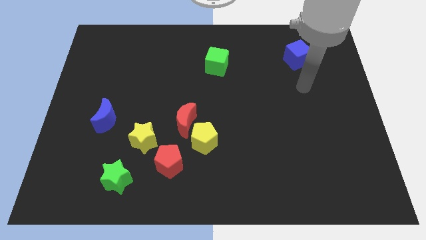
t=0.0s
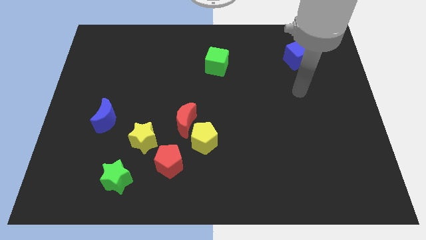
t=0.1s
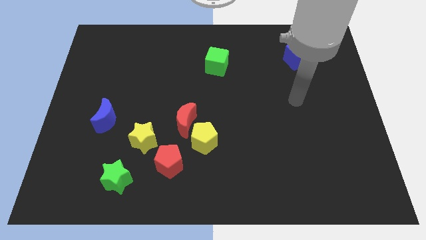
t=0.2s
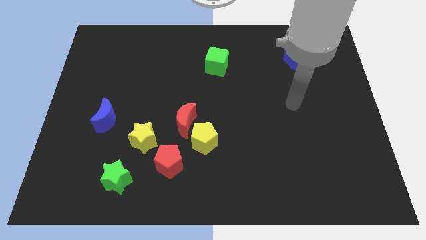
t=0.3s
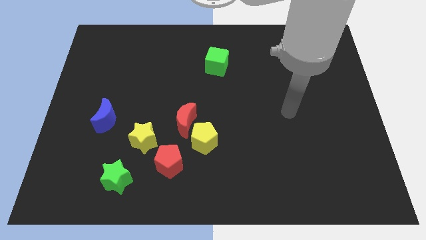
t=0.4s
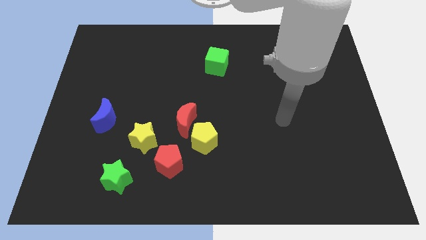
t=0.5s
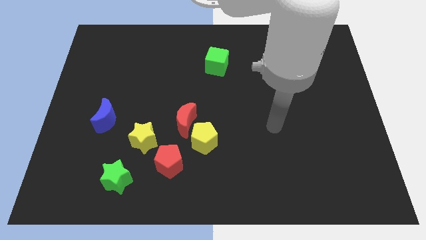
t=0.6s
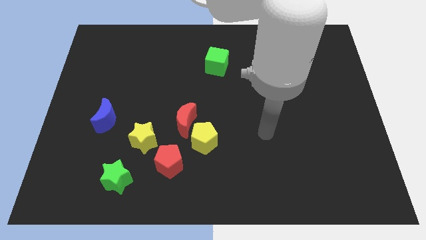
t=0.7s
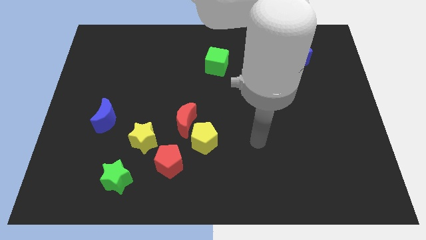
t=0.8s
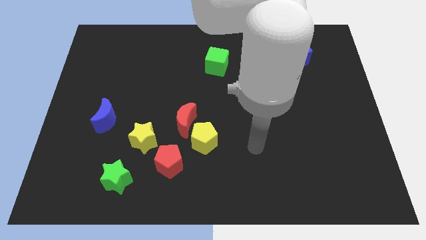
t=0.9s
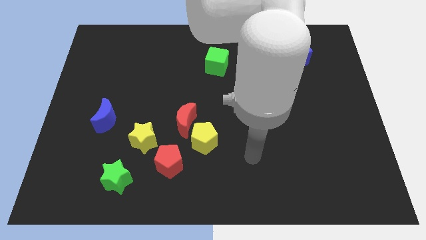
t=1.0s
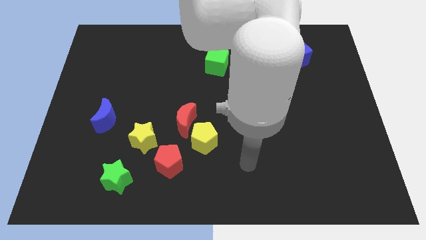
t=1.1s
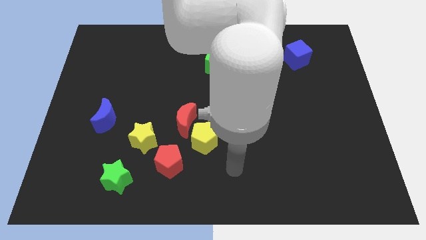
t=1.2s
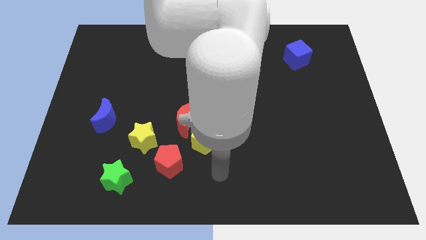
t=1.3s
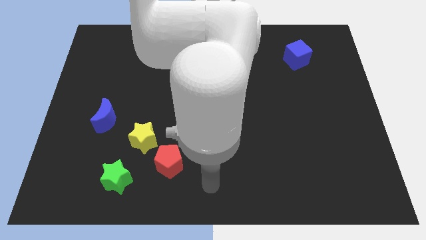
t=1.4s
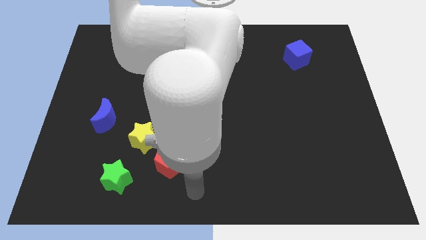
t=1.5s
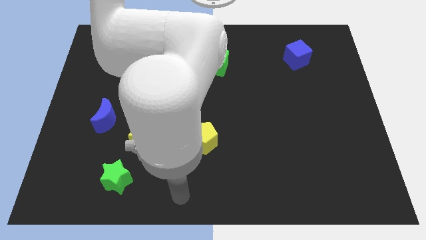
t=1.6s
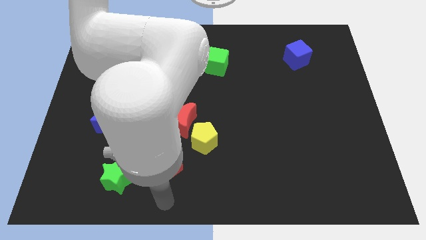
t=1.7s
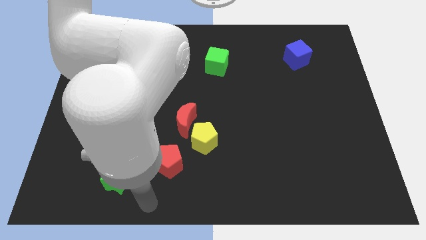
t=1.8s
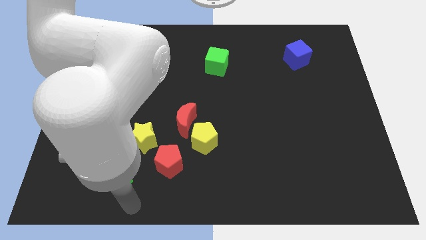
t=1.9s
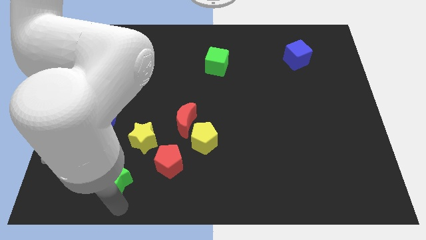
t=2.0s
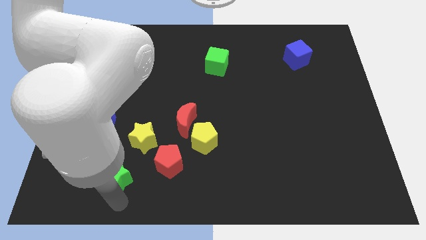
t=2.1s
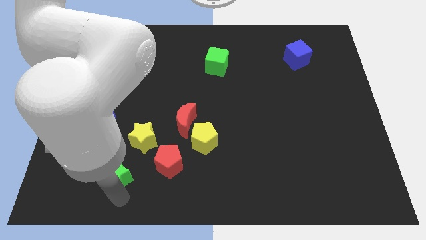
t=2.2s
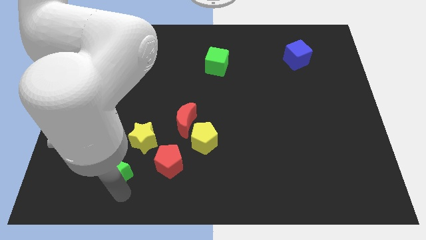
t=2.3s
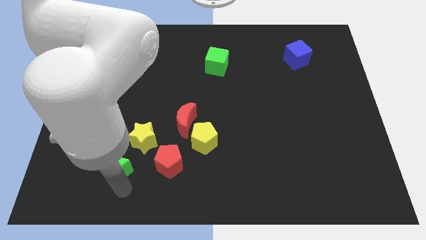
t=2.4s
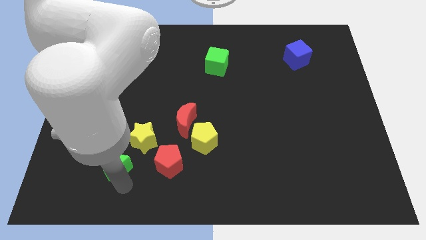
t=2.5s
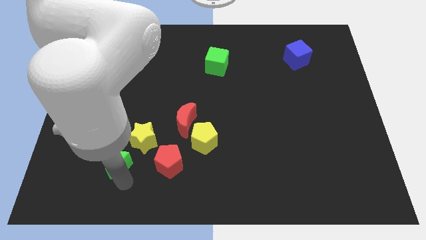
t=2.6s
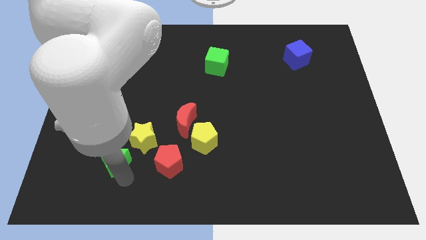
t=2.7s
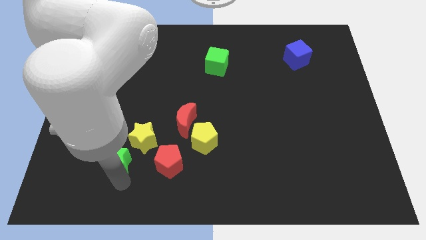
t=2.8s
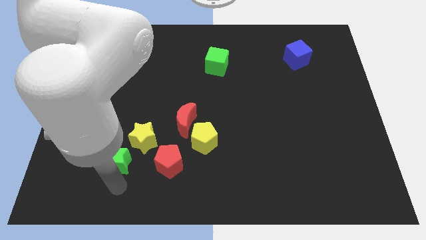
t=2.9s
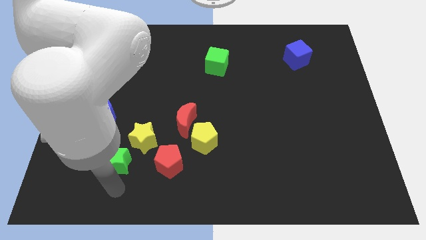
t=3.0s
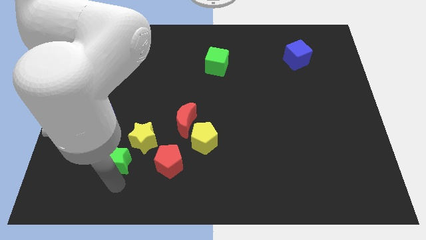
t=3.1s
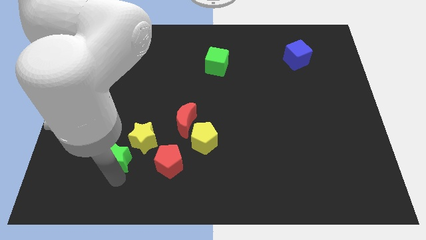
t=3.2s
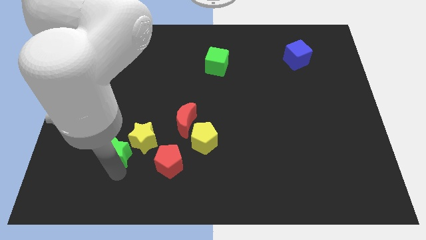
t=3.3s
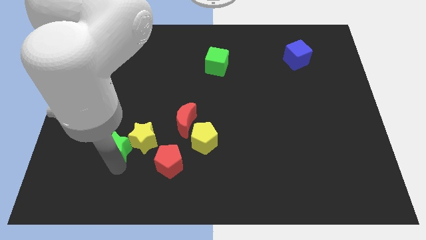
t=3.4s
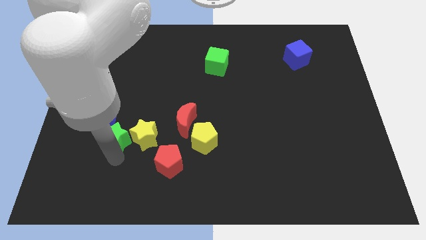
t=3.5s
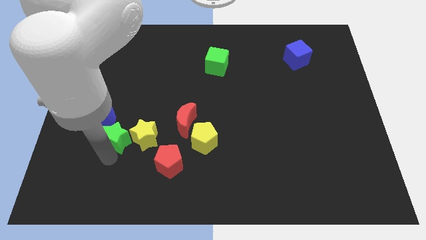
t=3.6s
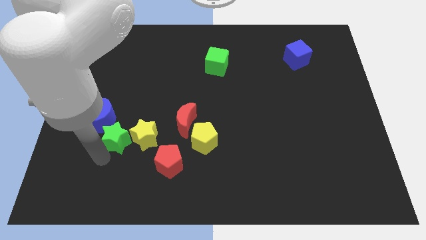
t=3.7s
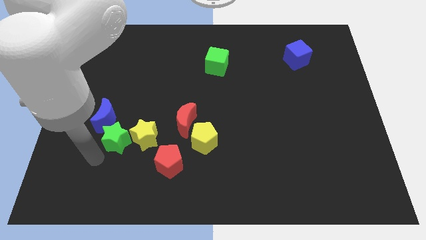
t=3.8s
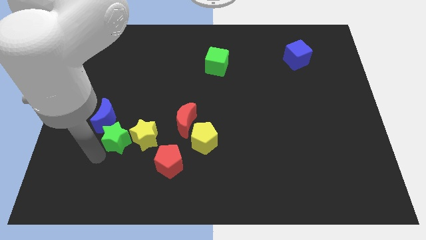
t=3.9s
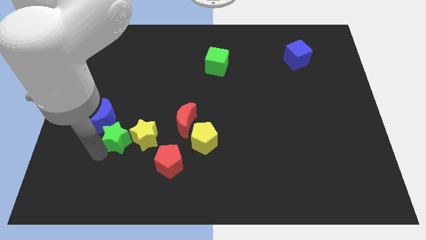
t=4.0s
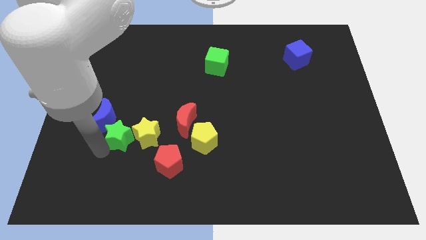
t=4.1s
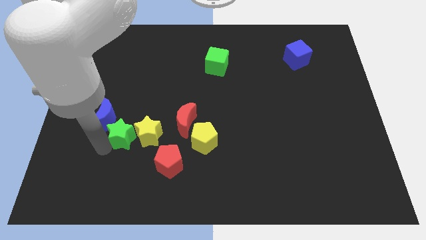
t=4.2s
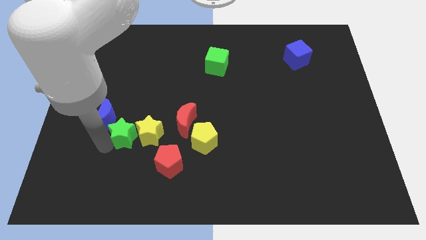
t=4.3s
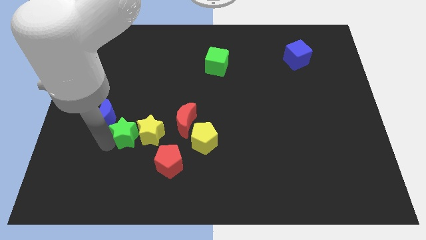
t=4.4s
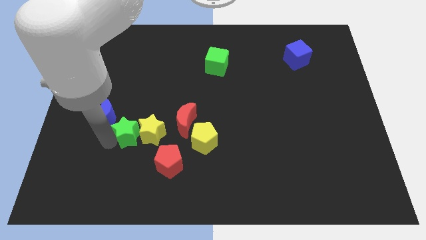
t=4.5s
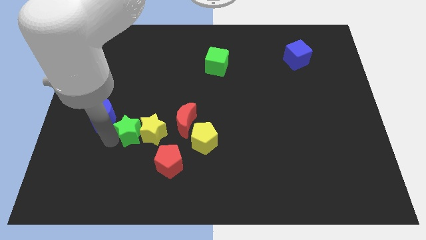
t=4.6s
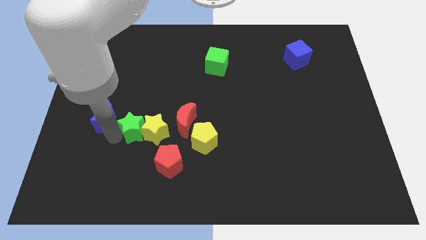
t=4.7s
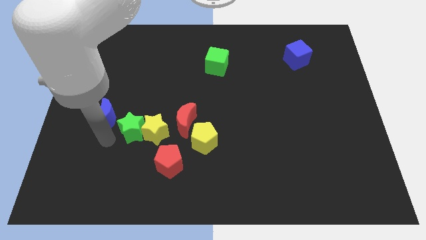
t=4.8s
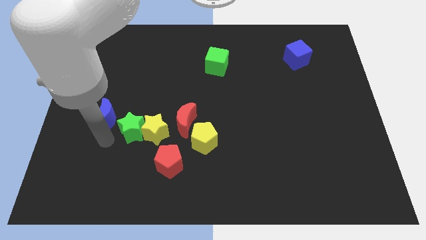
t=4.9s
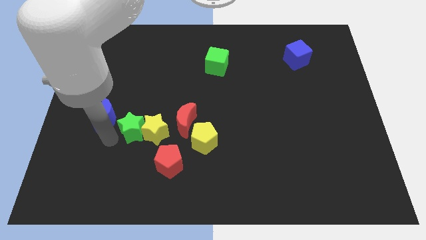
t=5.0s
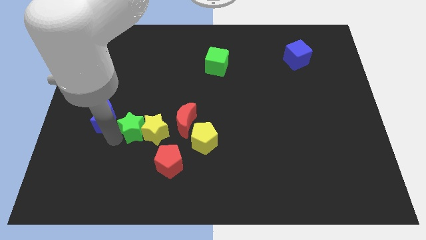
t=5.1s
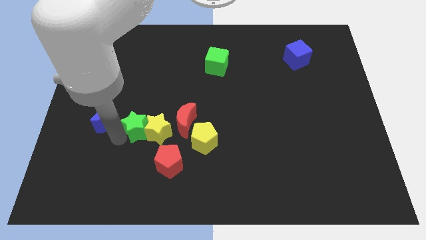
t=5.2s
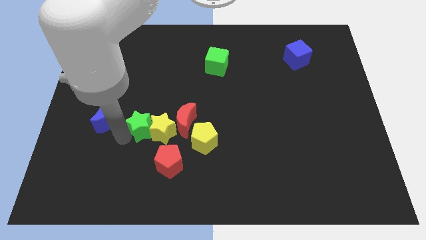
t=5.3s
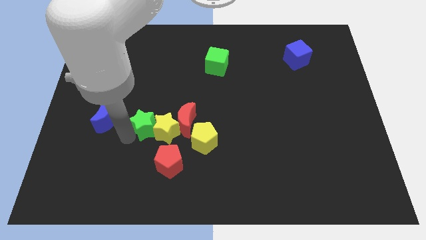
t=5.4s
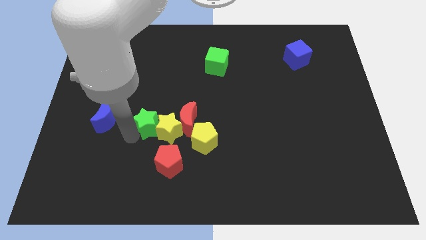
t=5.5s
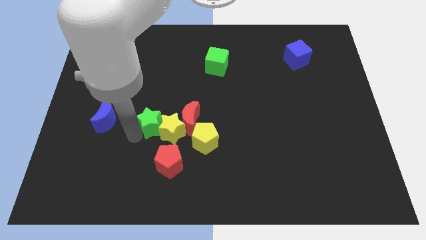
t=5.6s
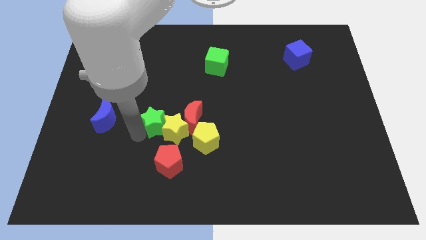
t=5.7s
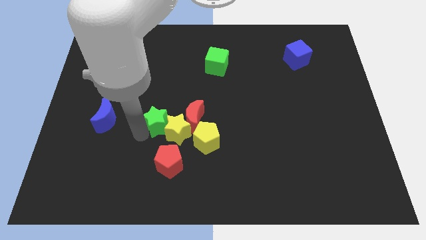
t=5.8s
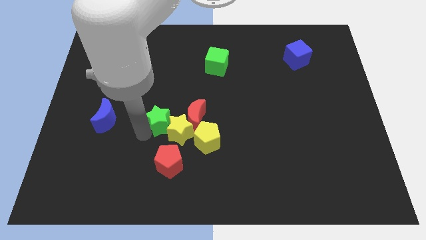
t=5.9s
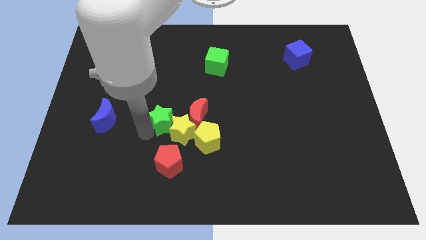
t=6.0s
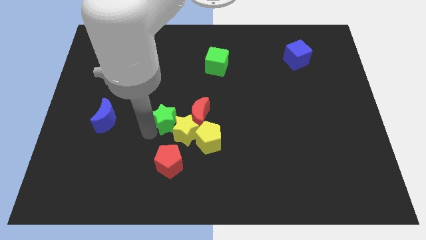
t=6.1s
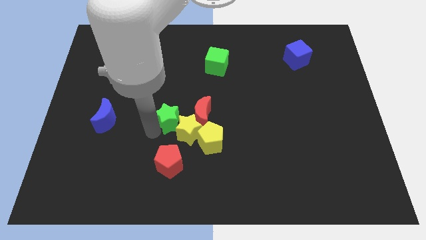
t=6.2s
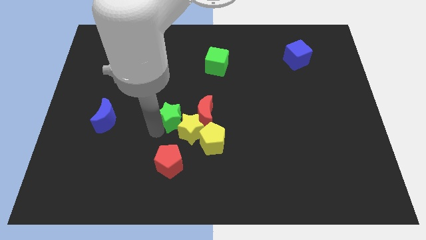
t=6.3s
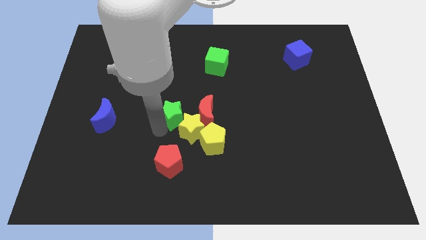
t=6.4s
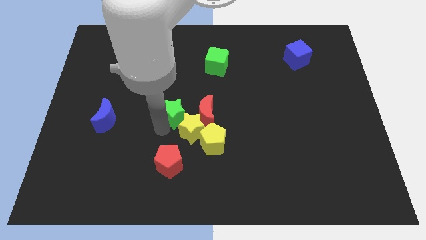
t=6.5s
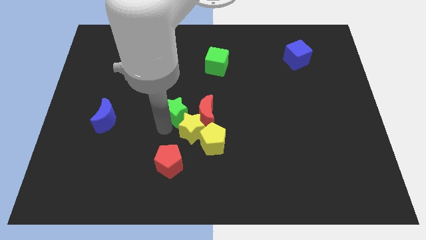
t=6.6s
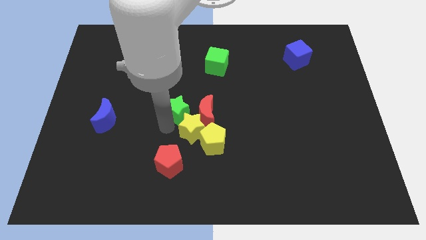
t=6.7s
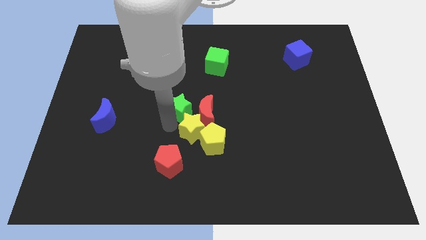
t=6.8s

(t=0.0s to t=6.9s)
move the green star up and right diagonally

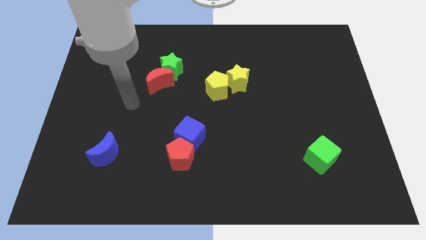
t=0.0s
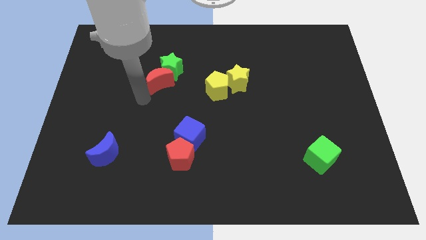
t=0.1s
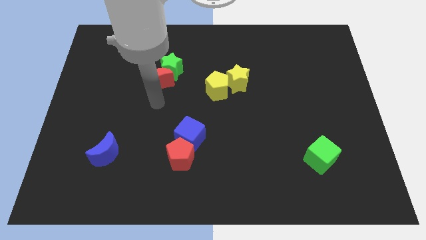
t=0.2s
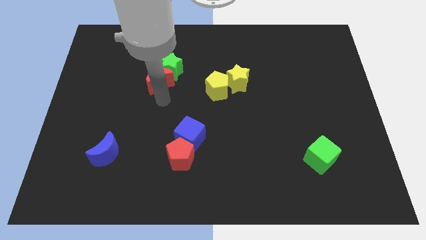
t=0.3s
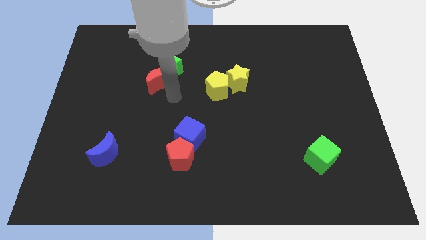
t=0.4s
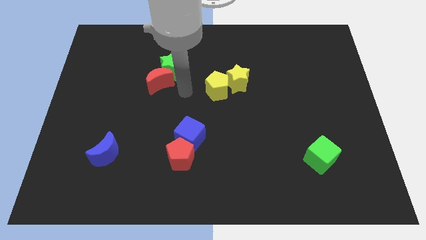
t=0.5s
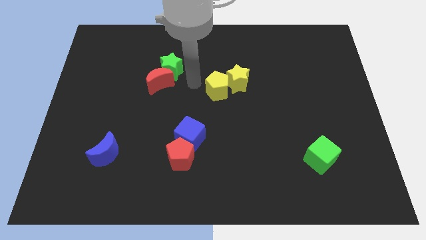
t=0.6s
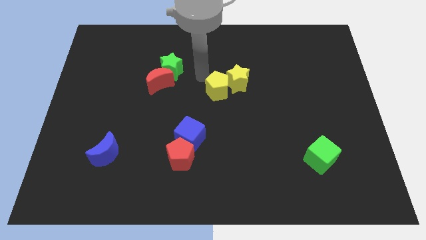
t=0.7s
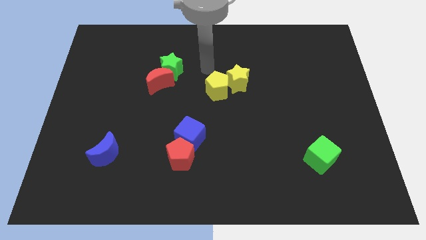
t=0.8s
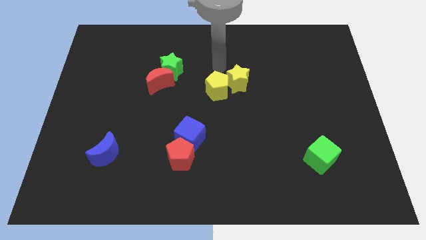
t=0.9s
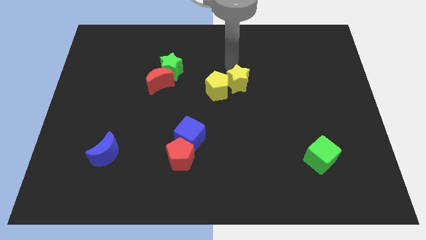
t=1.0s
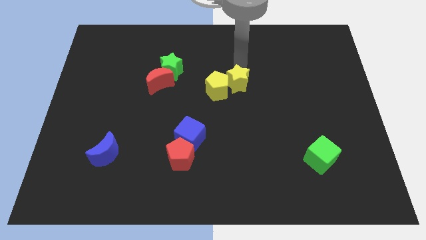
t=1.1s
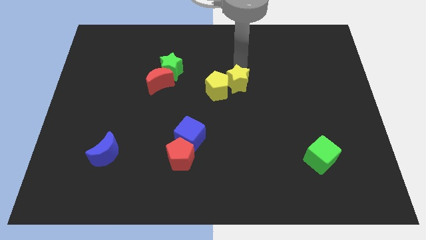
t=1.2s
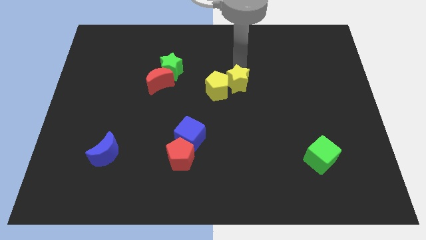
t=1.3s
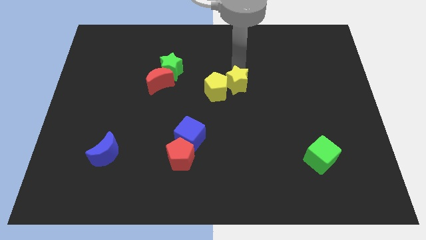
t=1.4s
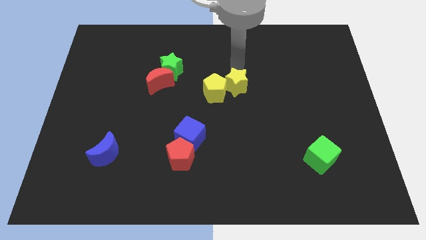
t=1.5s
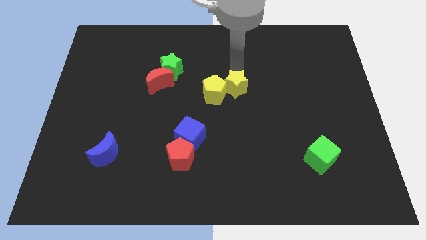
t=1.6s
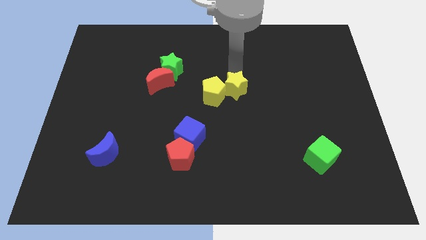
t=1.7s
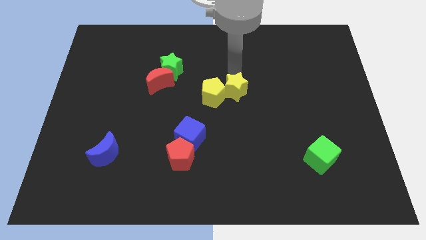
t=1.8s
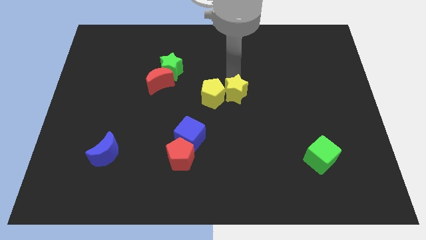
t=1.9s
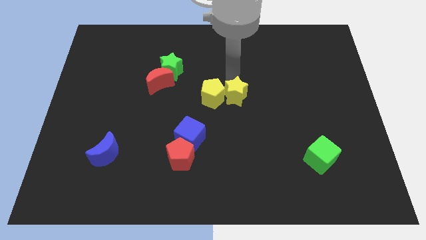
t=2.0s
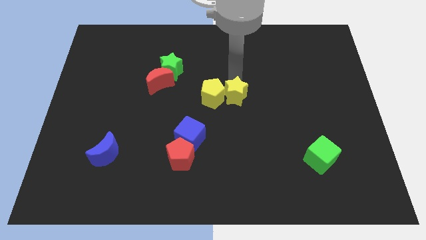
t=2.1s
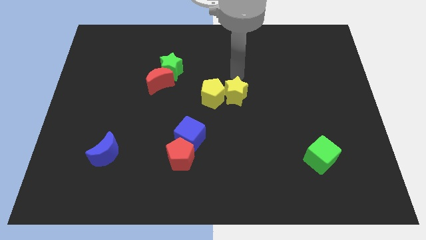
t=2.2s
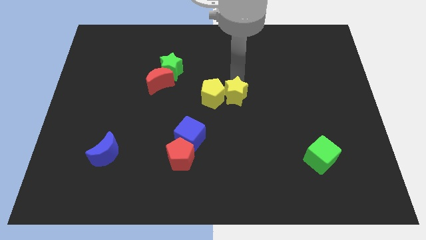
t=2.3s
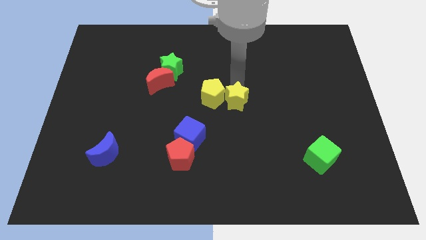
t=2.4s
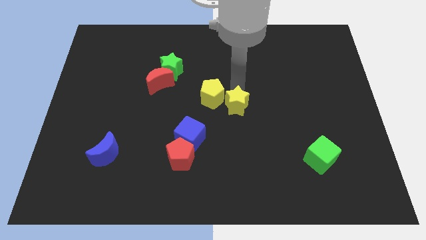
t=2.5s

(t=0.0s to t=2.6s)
slightly move the yellow star down
